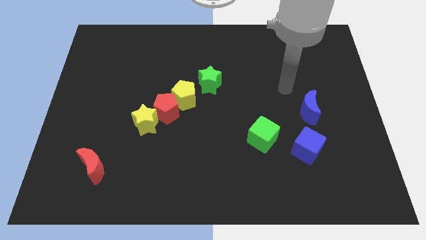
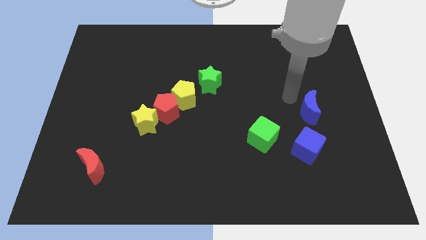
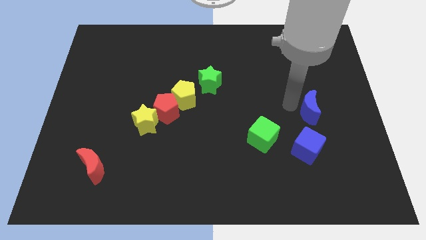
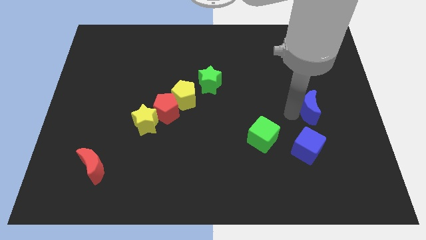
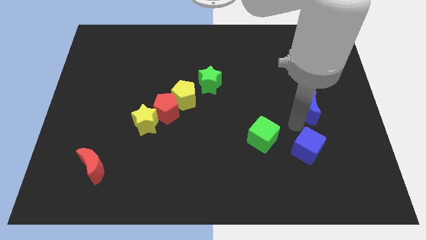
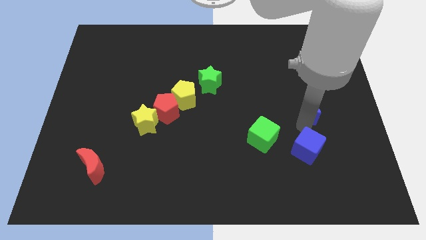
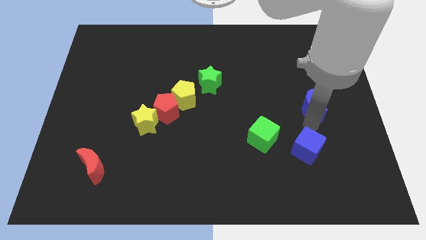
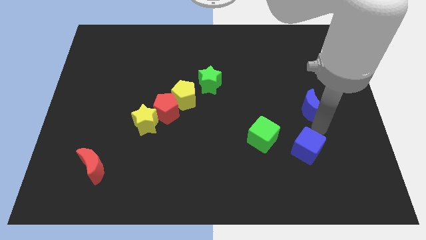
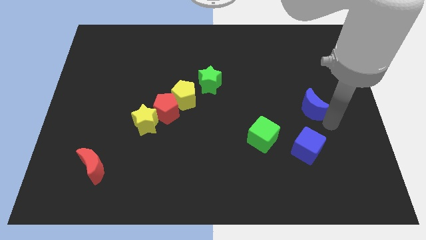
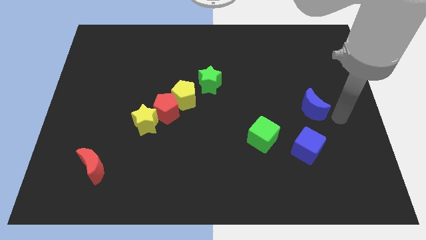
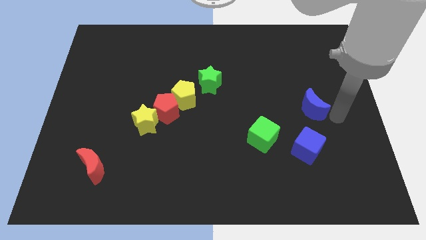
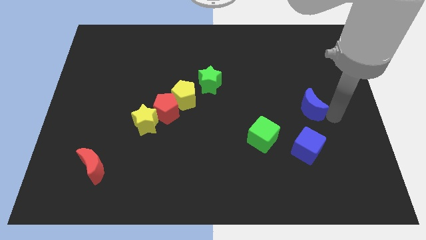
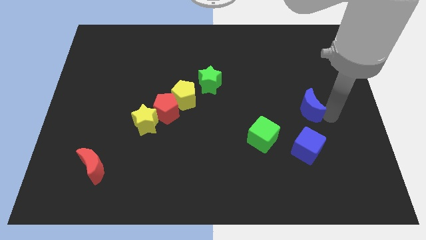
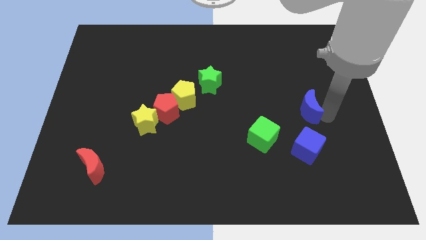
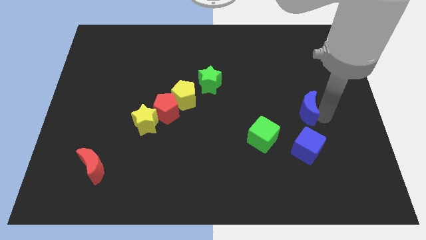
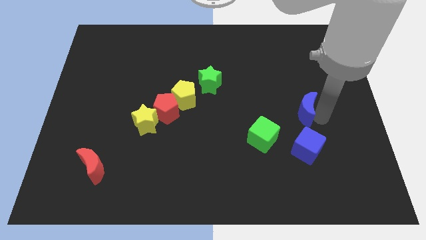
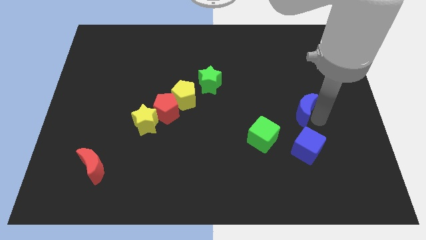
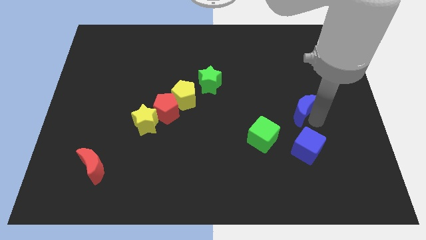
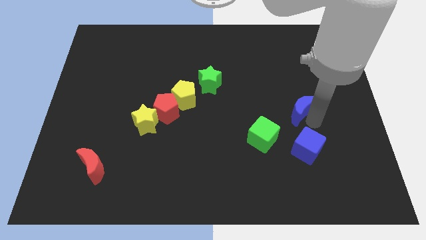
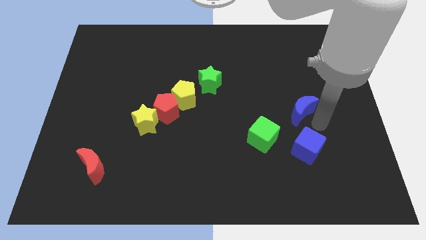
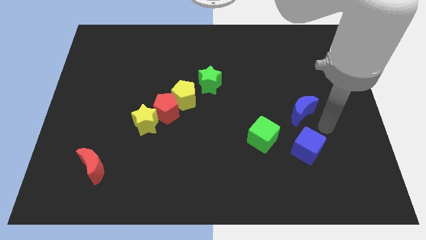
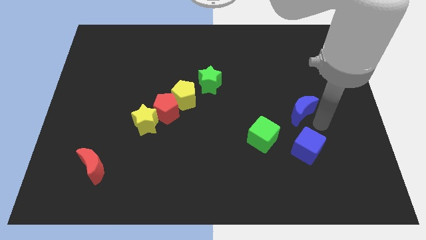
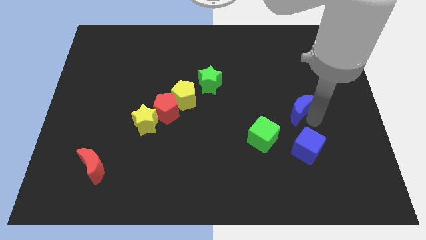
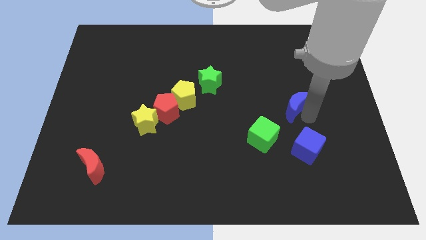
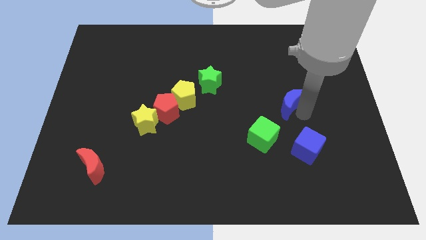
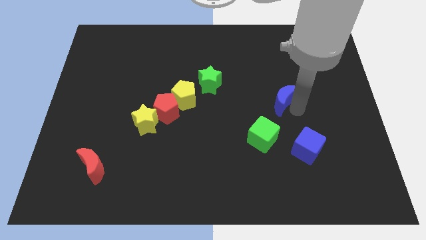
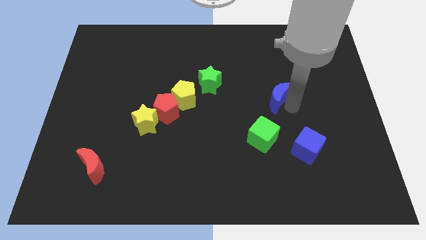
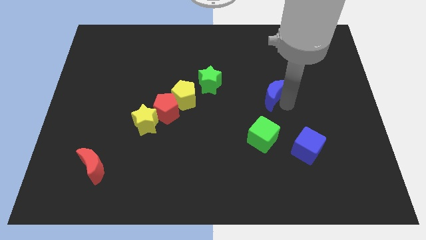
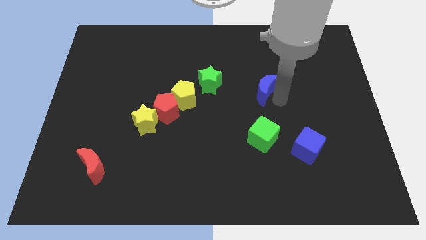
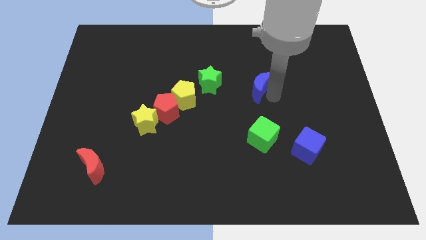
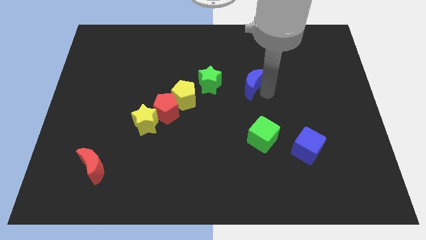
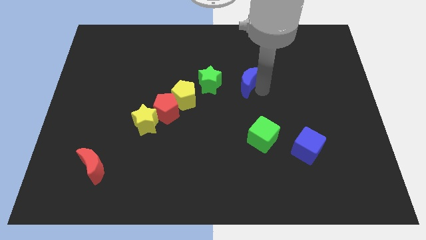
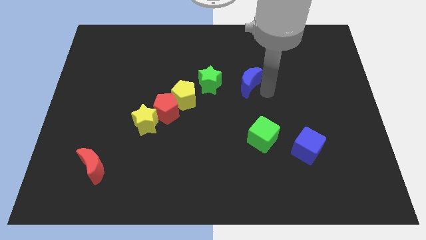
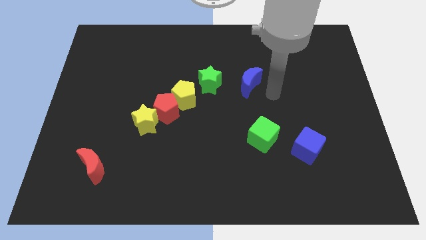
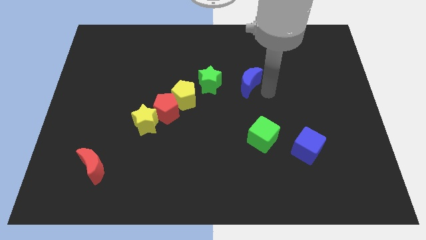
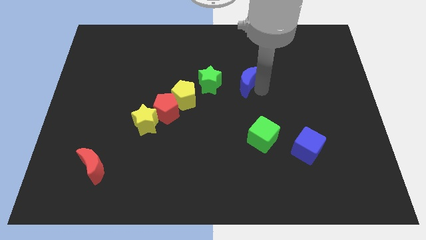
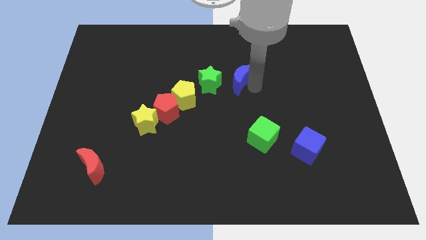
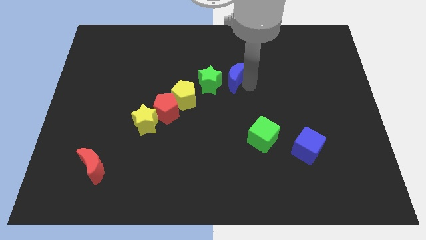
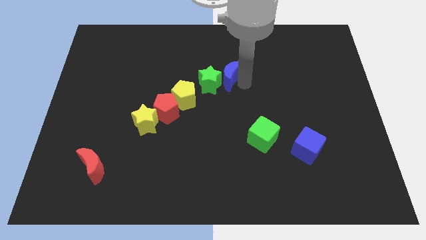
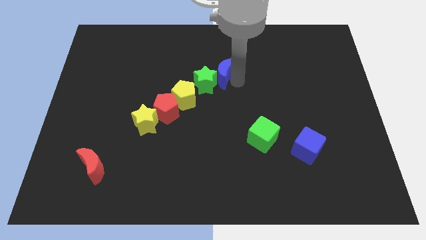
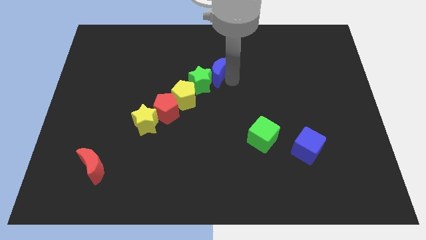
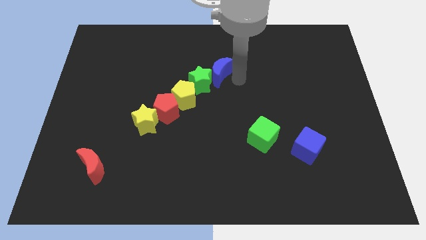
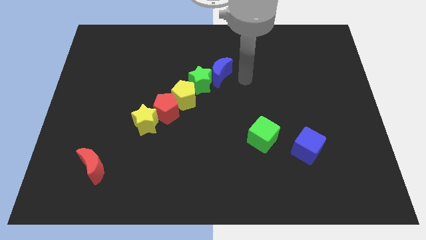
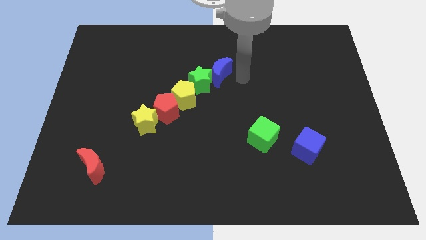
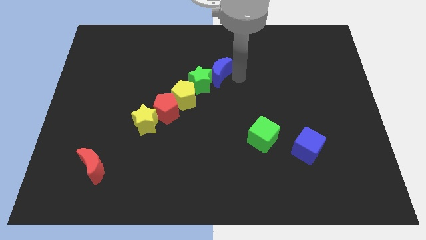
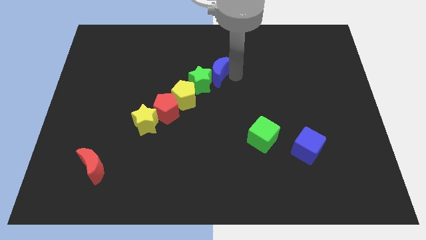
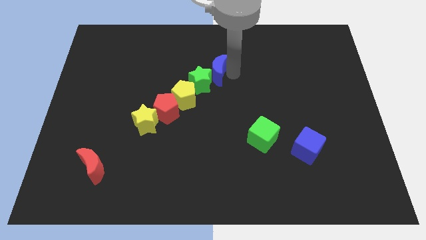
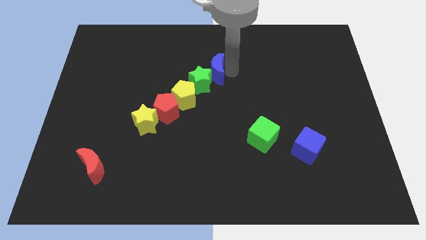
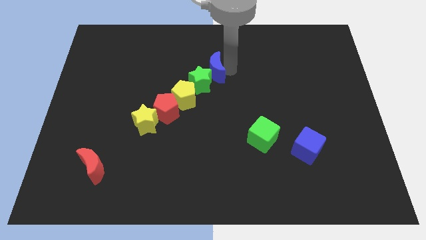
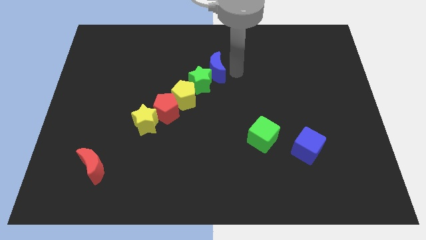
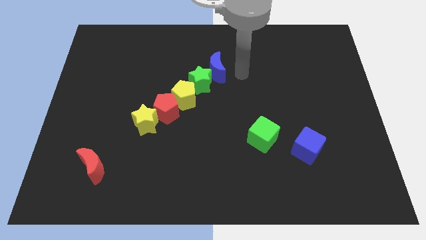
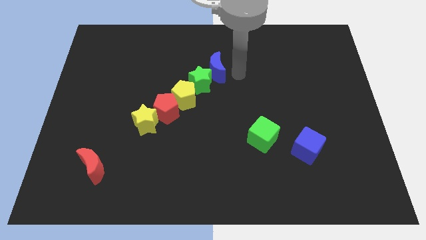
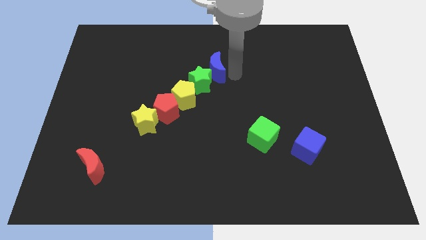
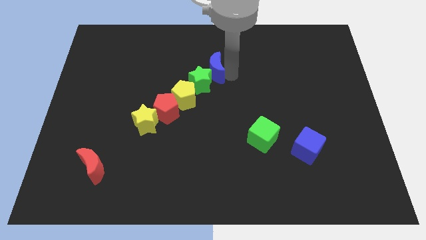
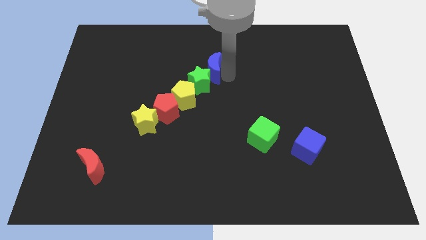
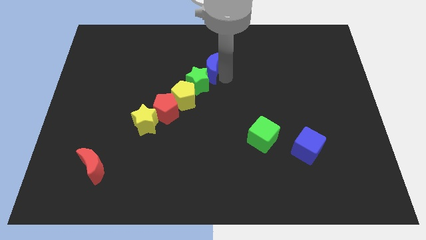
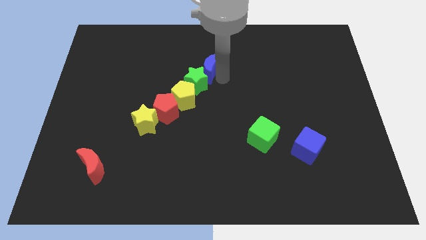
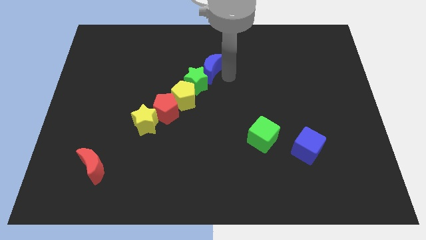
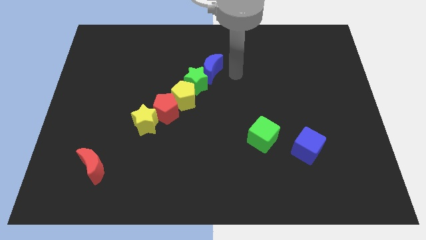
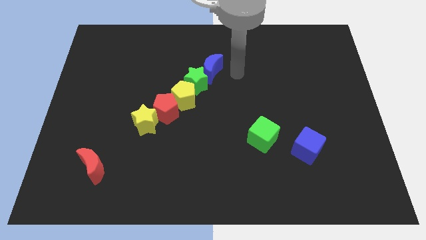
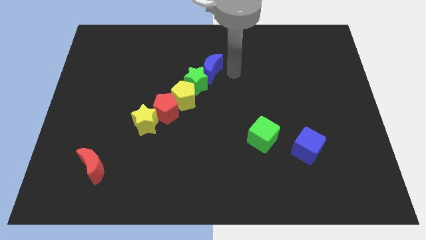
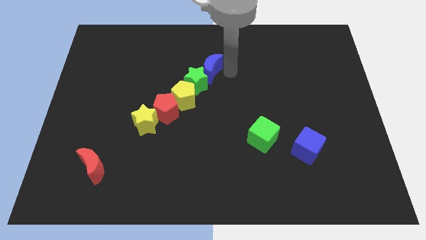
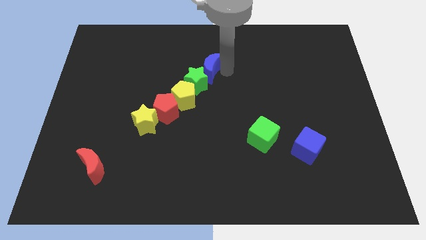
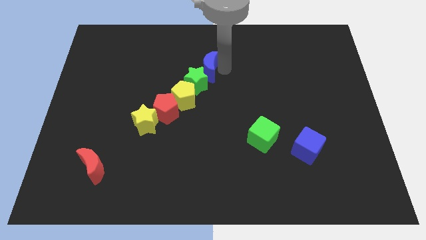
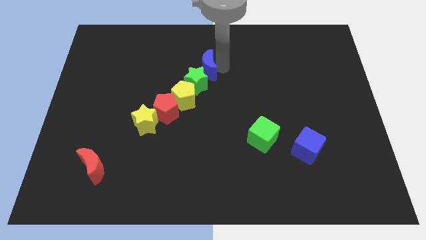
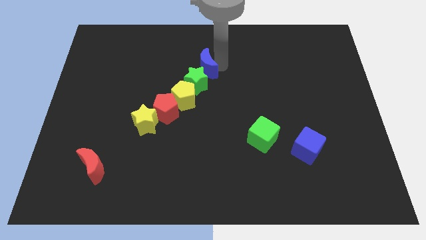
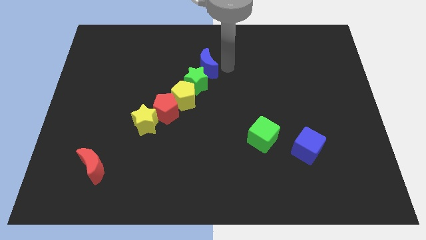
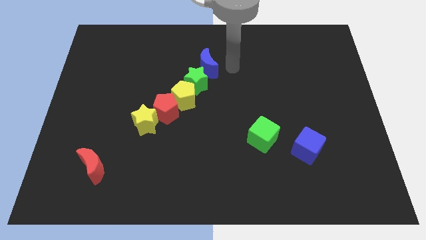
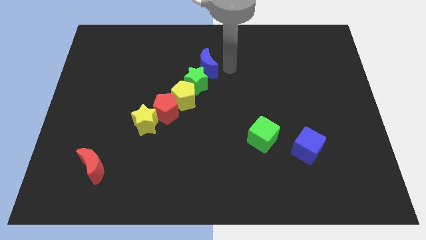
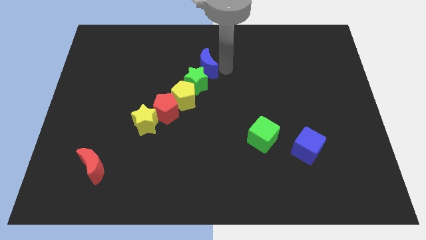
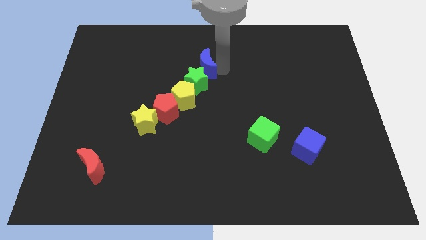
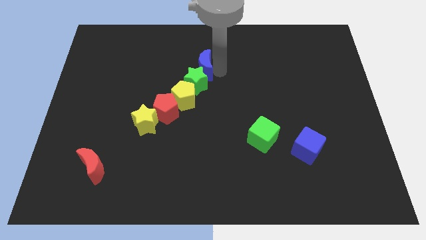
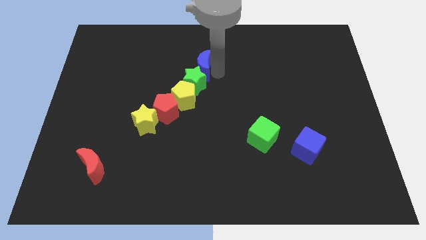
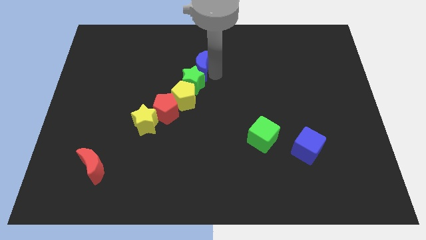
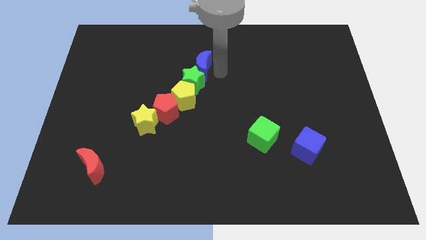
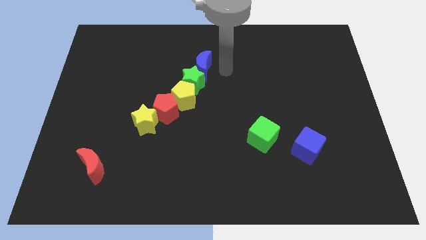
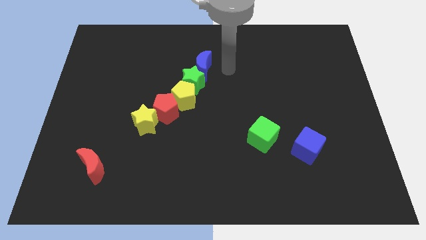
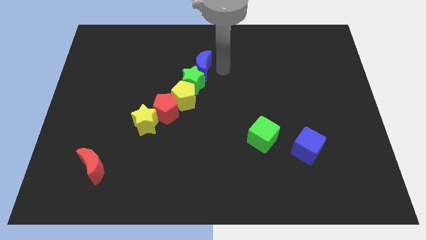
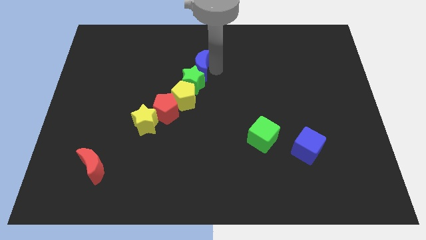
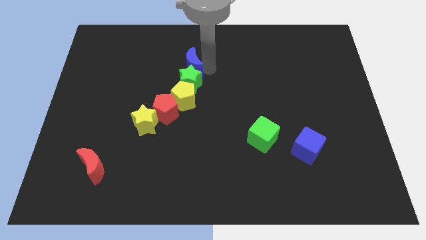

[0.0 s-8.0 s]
move the blue moon to the top left side of the green star

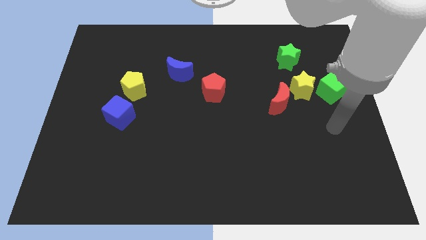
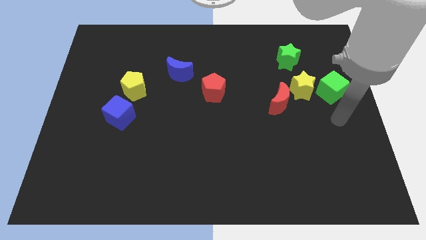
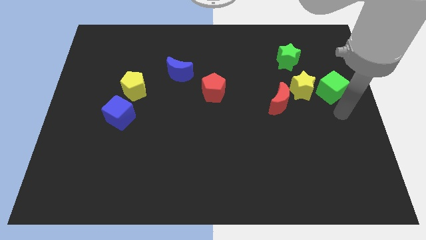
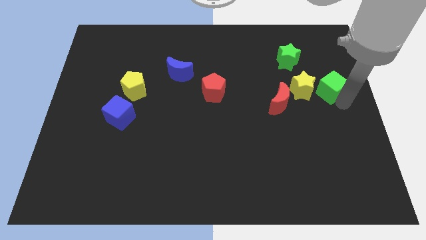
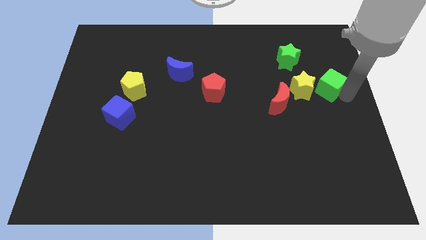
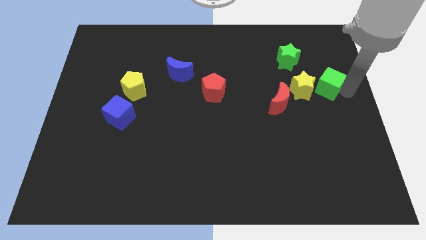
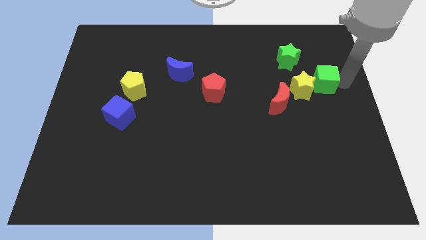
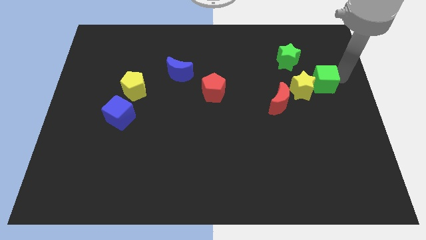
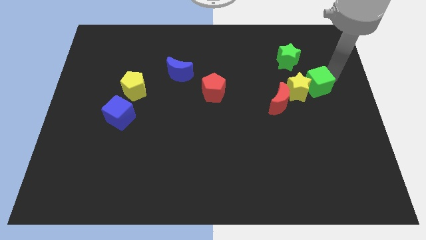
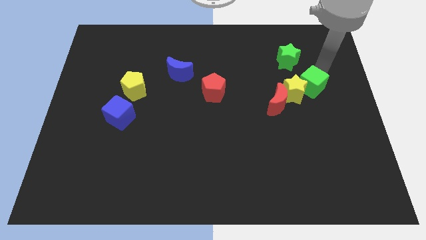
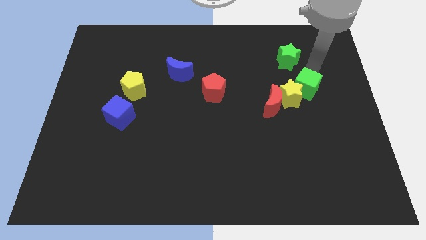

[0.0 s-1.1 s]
move the yellow star below the green cube
